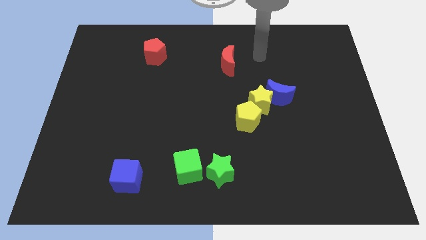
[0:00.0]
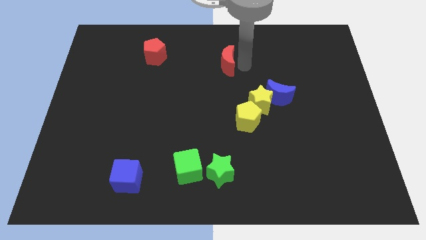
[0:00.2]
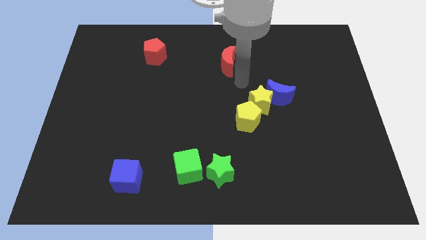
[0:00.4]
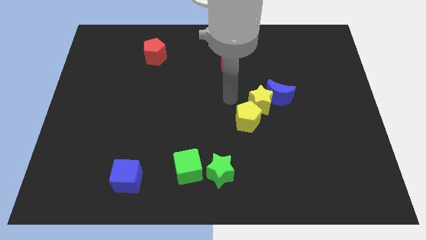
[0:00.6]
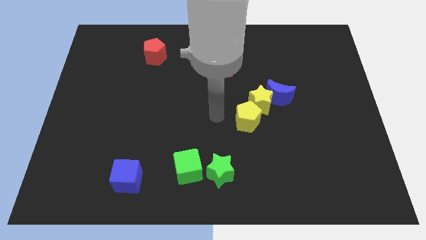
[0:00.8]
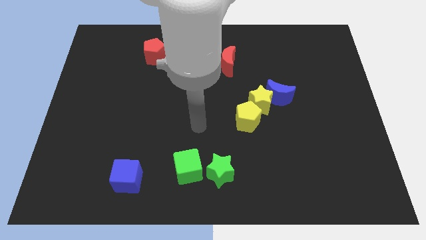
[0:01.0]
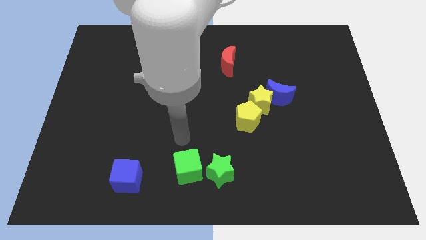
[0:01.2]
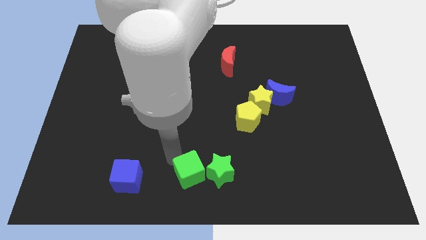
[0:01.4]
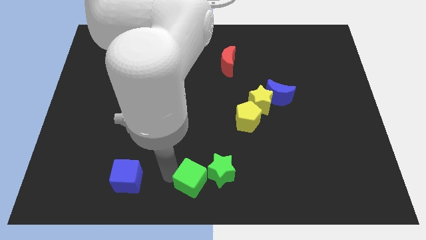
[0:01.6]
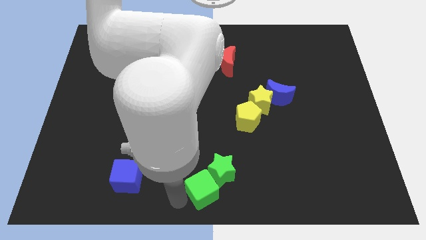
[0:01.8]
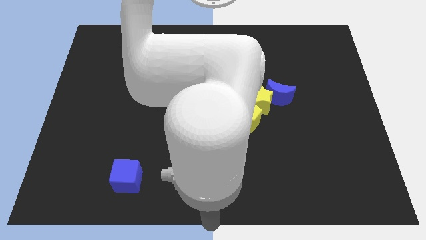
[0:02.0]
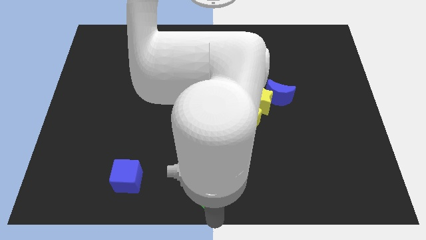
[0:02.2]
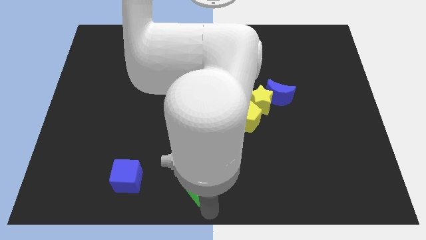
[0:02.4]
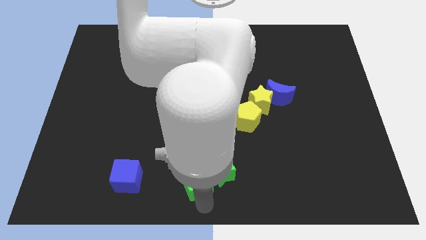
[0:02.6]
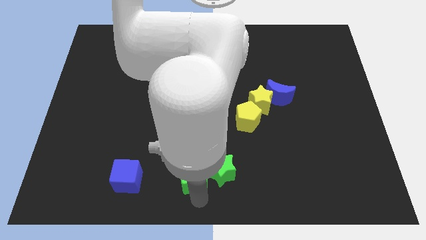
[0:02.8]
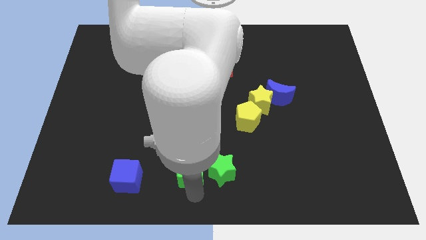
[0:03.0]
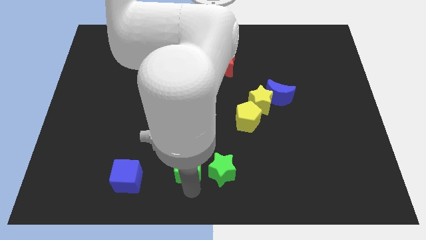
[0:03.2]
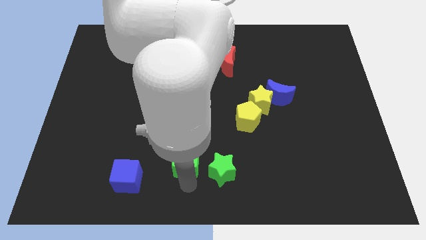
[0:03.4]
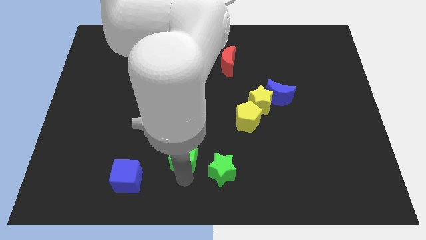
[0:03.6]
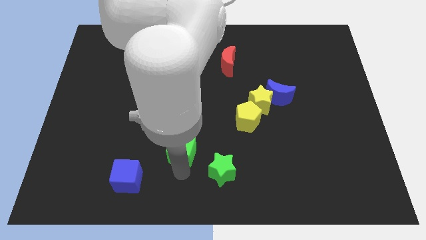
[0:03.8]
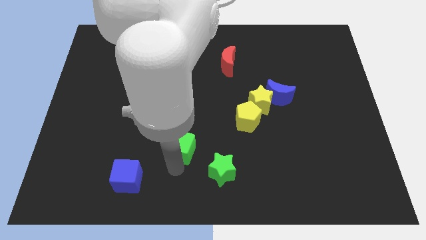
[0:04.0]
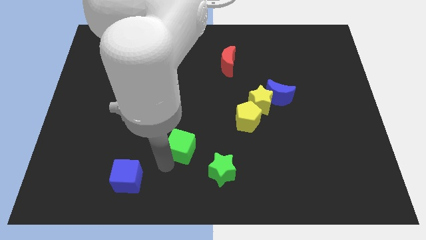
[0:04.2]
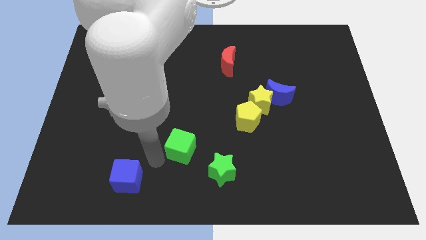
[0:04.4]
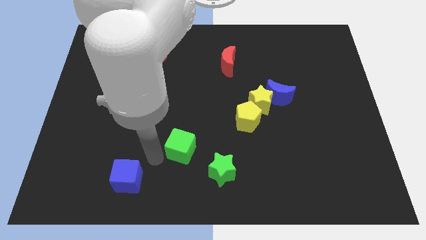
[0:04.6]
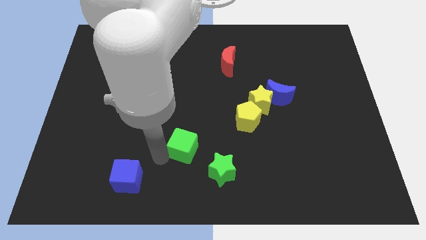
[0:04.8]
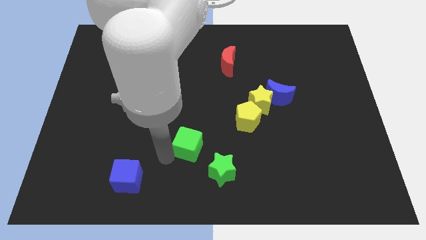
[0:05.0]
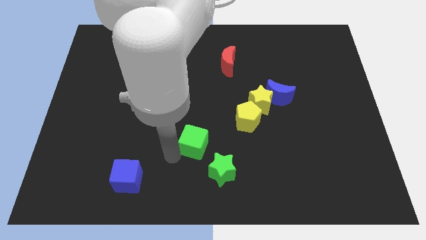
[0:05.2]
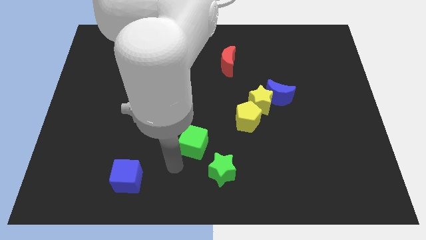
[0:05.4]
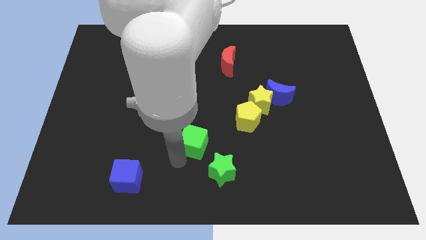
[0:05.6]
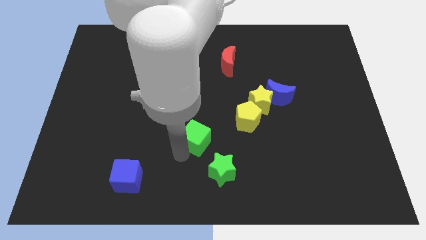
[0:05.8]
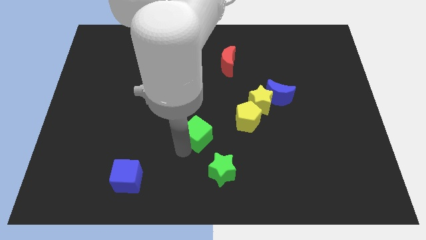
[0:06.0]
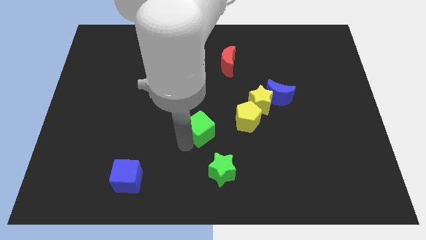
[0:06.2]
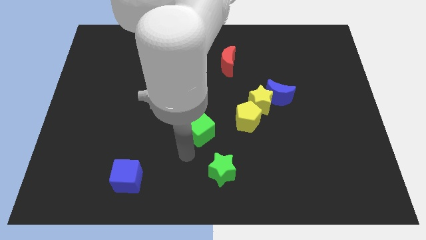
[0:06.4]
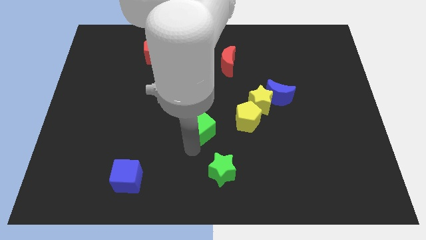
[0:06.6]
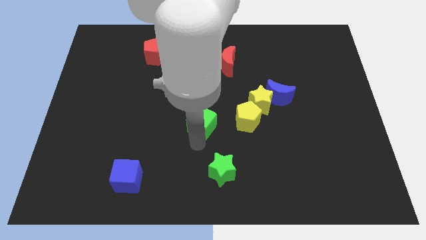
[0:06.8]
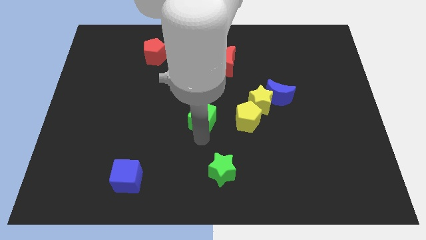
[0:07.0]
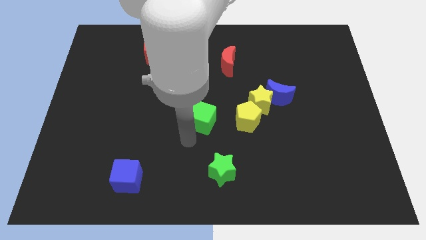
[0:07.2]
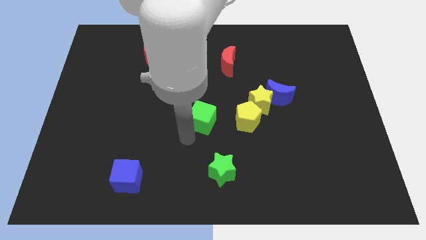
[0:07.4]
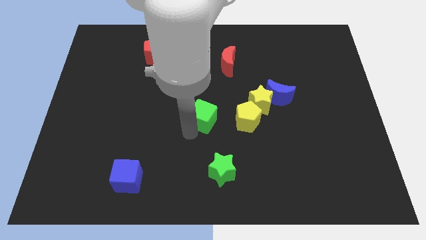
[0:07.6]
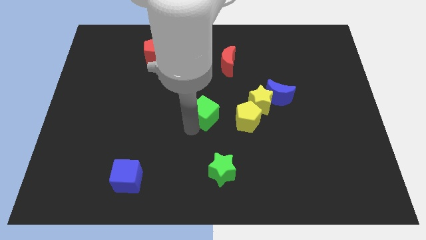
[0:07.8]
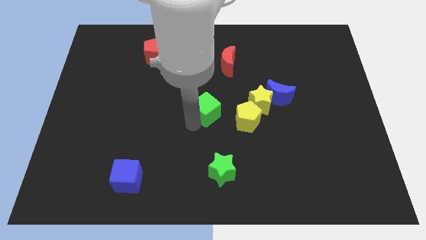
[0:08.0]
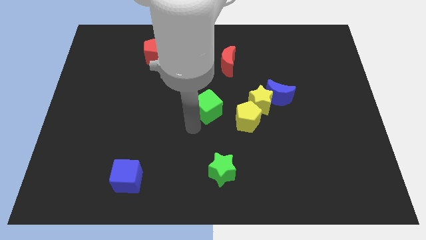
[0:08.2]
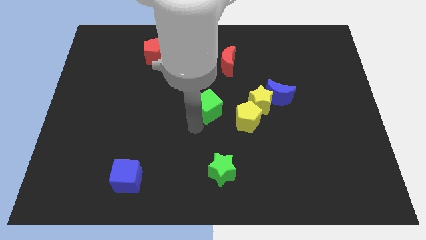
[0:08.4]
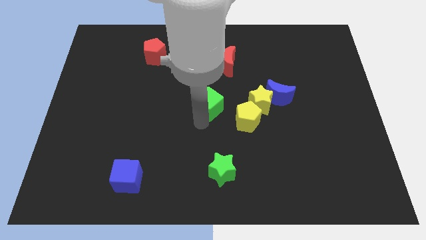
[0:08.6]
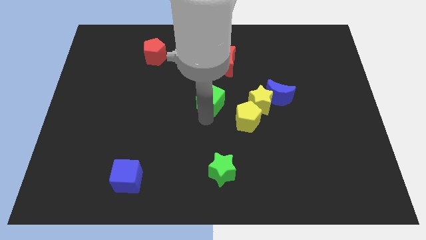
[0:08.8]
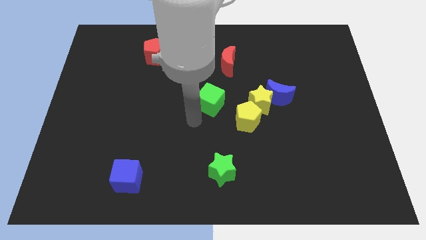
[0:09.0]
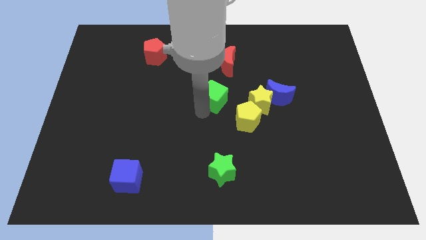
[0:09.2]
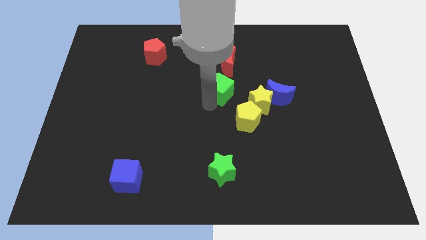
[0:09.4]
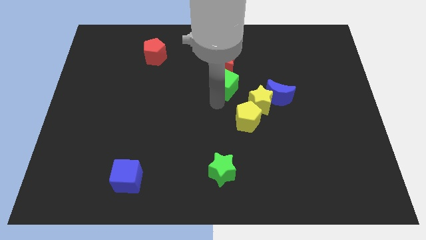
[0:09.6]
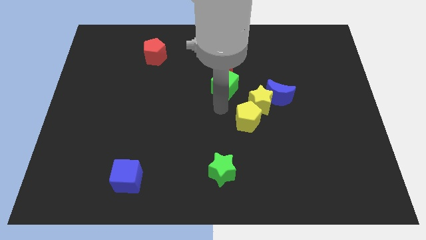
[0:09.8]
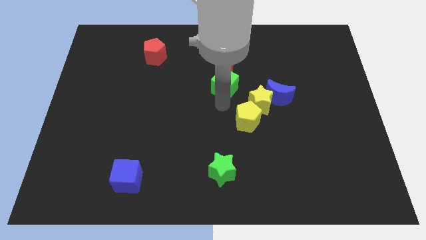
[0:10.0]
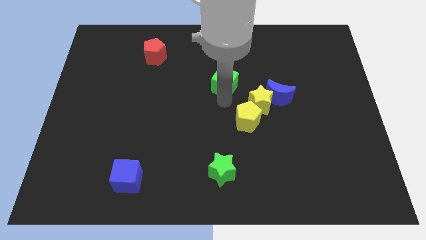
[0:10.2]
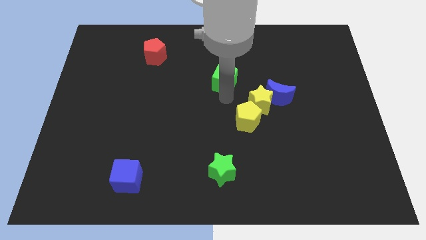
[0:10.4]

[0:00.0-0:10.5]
put the green cube close to the red moon

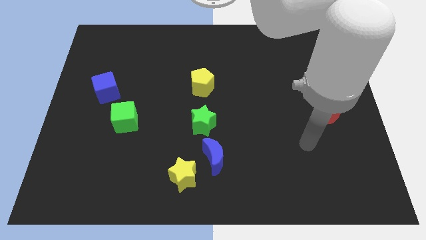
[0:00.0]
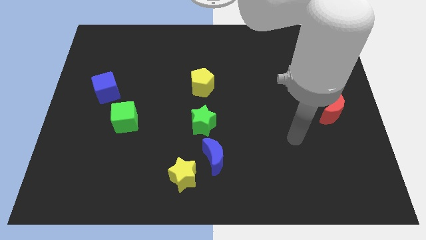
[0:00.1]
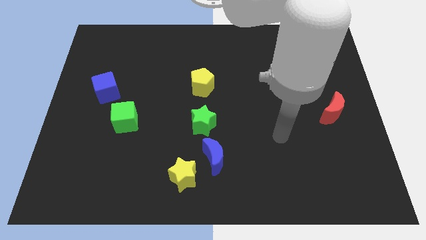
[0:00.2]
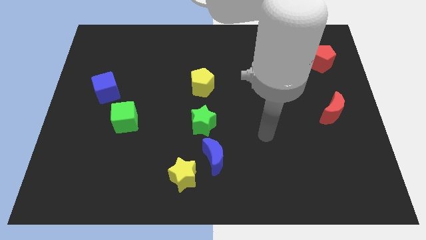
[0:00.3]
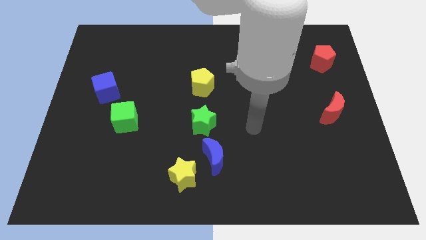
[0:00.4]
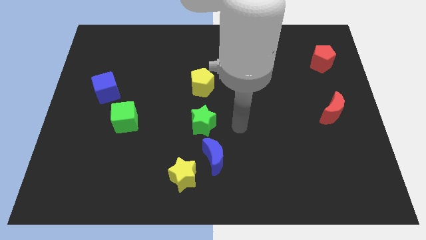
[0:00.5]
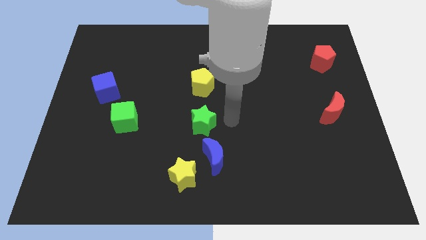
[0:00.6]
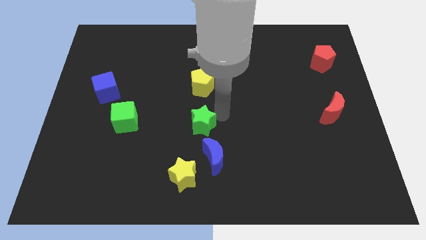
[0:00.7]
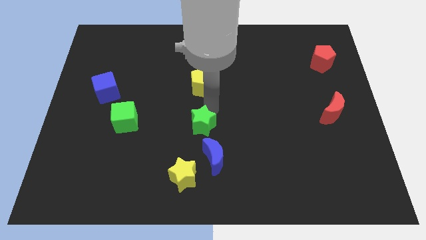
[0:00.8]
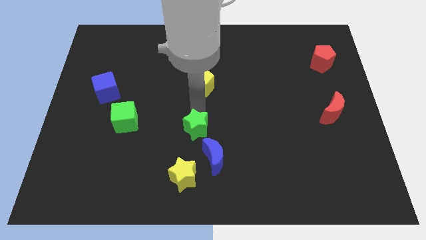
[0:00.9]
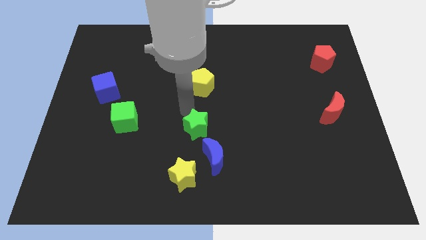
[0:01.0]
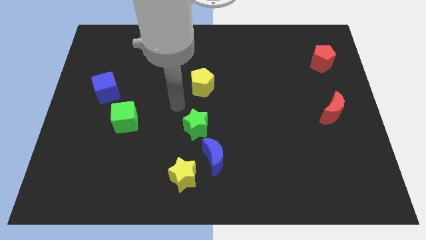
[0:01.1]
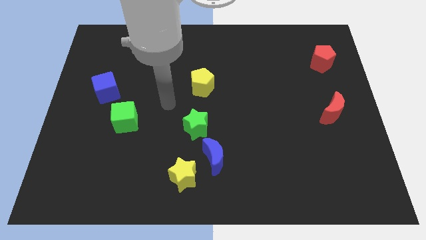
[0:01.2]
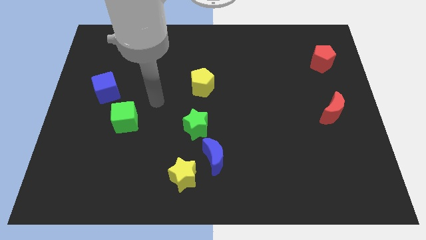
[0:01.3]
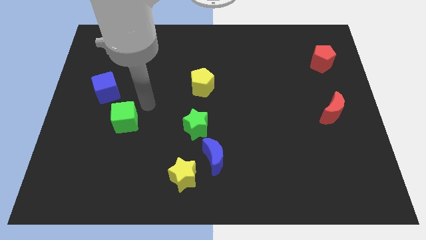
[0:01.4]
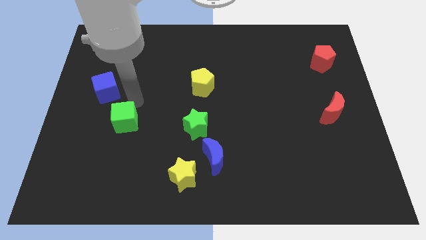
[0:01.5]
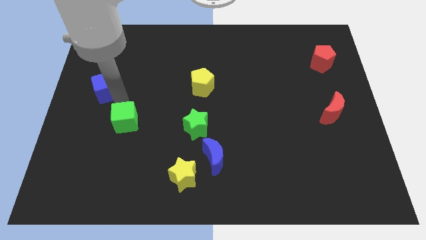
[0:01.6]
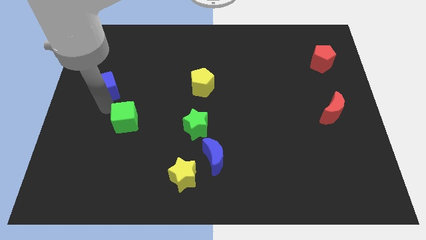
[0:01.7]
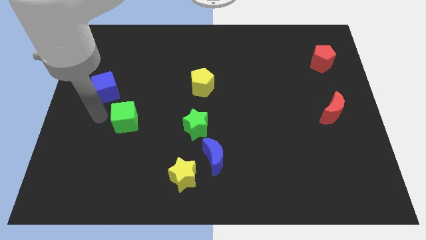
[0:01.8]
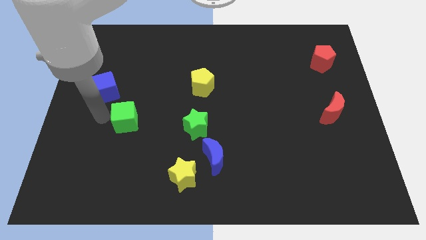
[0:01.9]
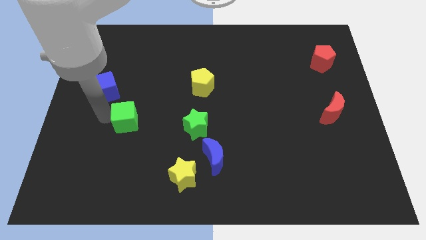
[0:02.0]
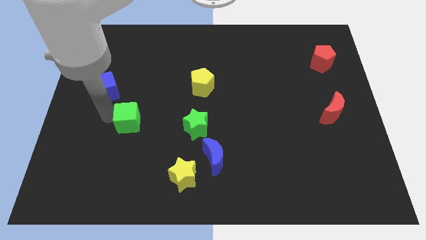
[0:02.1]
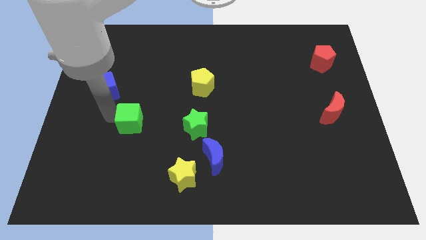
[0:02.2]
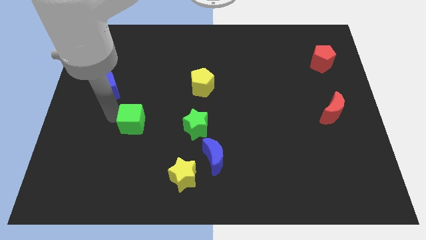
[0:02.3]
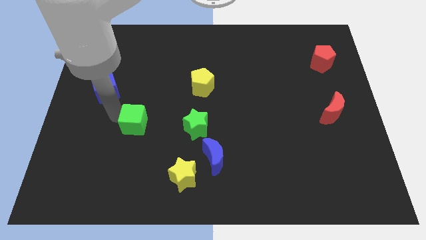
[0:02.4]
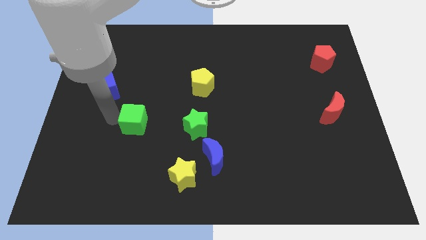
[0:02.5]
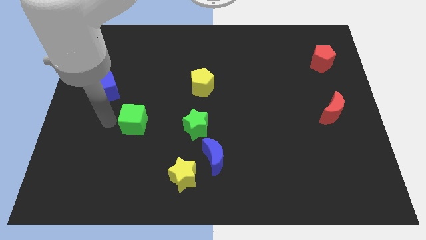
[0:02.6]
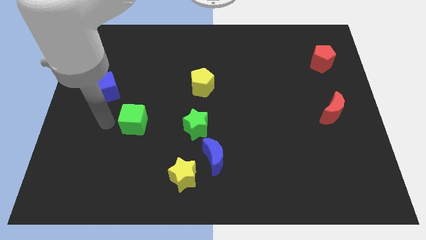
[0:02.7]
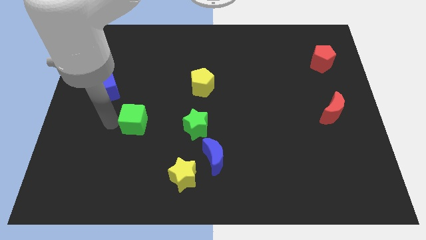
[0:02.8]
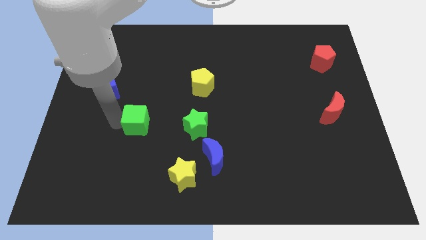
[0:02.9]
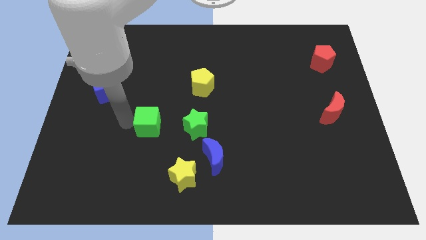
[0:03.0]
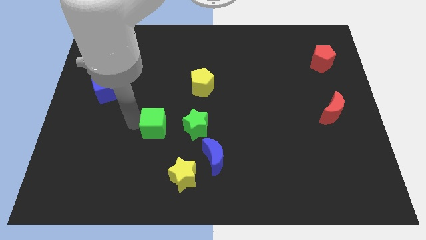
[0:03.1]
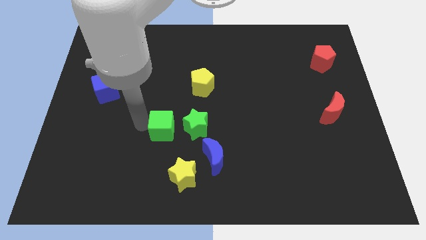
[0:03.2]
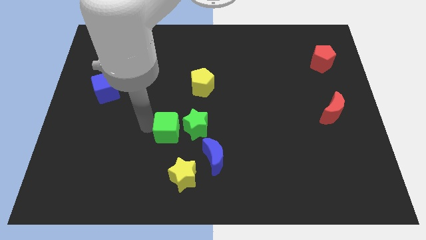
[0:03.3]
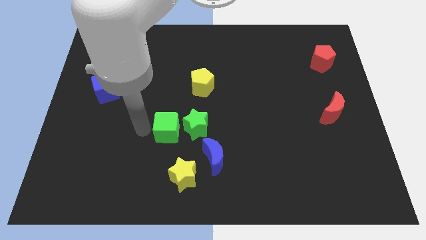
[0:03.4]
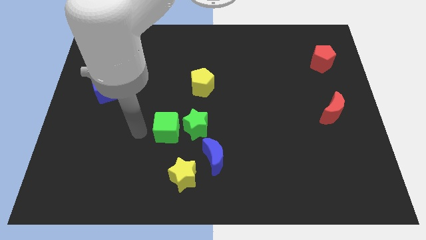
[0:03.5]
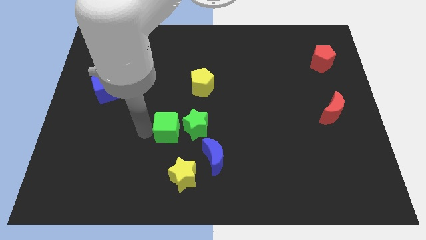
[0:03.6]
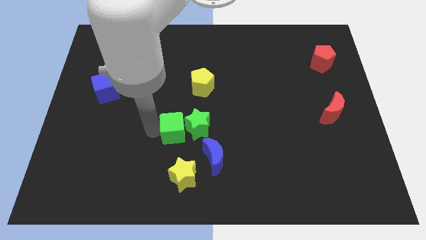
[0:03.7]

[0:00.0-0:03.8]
put the green cube next to the green star
